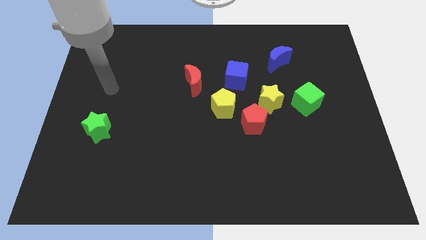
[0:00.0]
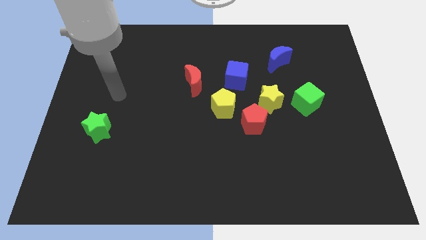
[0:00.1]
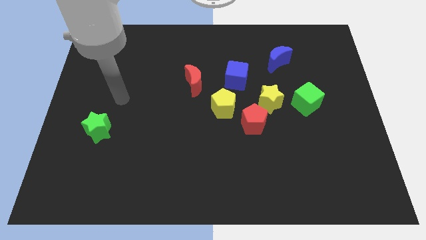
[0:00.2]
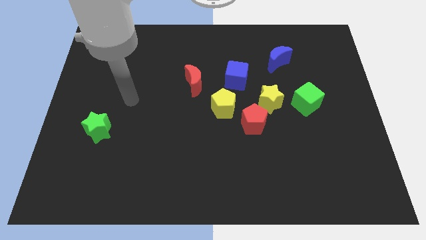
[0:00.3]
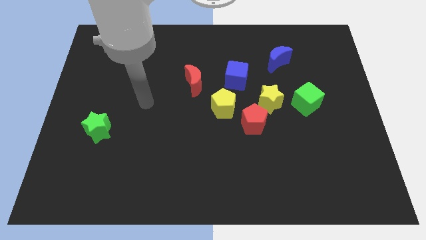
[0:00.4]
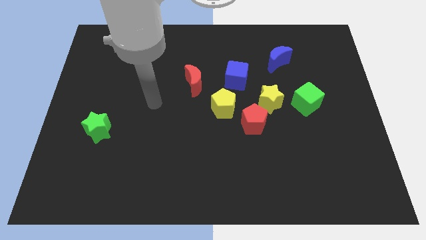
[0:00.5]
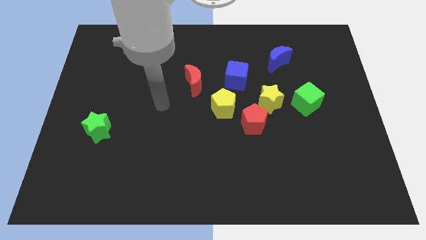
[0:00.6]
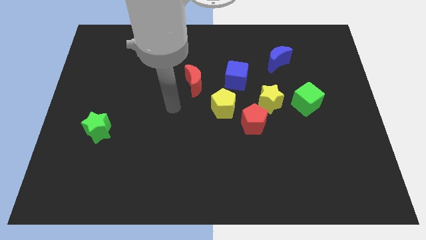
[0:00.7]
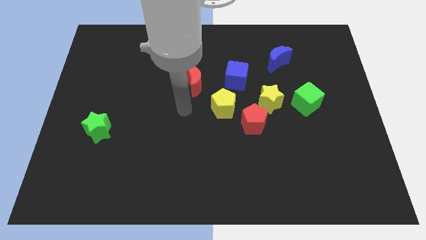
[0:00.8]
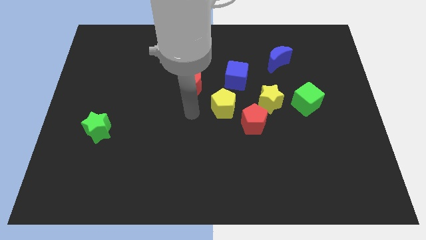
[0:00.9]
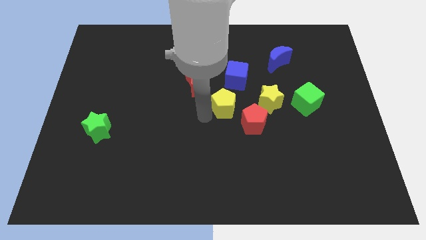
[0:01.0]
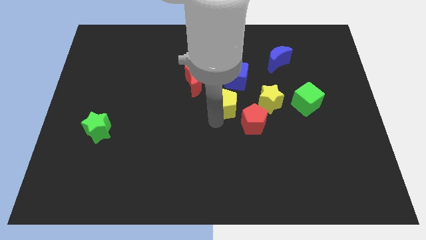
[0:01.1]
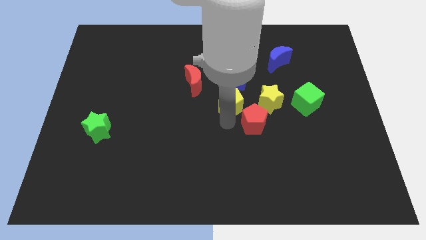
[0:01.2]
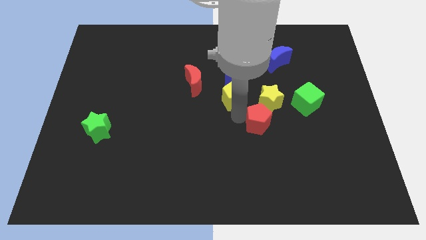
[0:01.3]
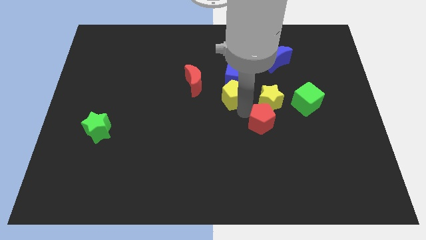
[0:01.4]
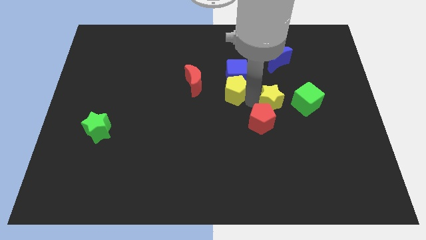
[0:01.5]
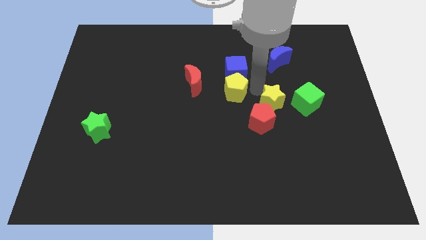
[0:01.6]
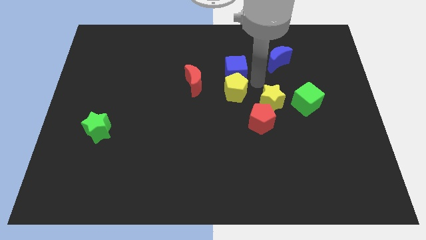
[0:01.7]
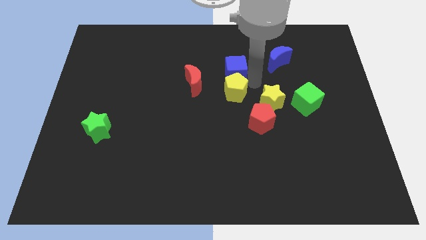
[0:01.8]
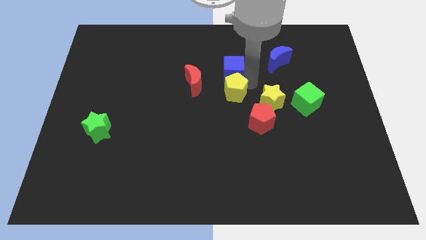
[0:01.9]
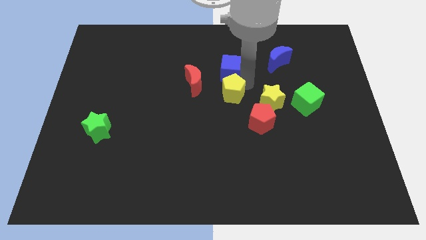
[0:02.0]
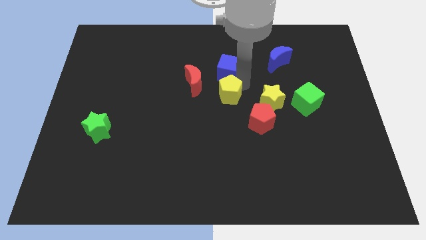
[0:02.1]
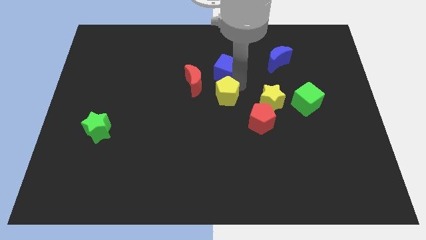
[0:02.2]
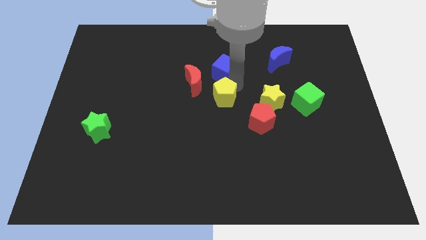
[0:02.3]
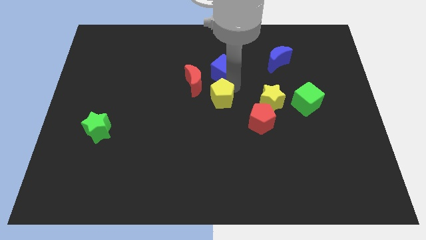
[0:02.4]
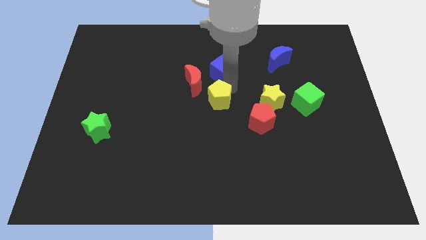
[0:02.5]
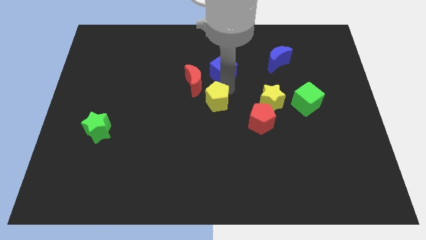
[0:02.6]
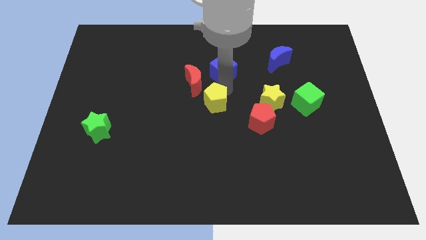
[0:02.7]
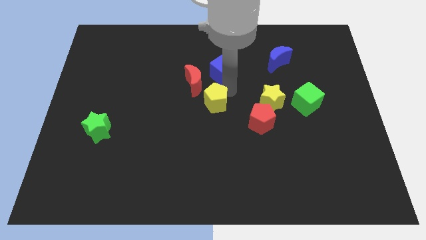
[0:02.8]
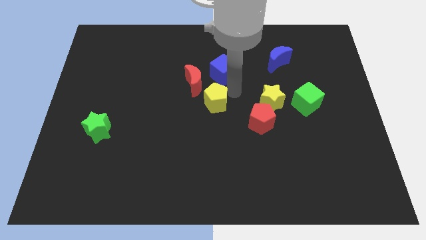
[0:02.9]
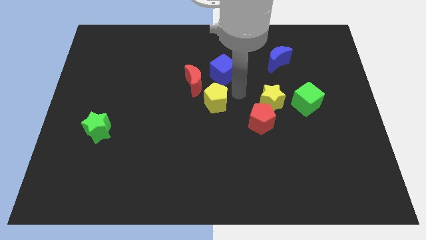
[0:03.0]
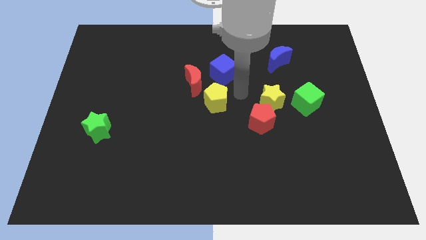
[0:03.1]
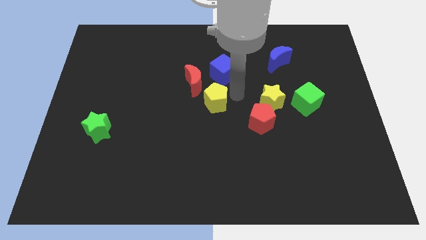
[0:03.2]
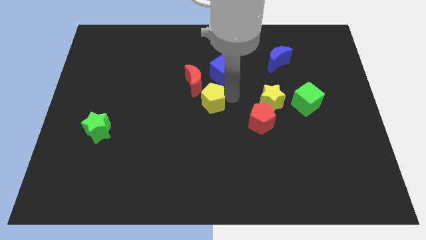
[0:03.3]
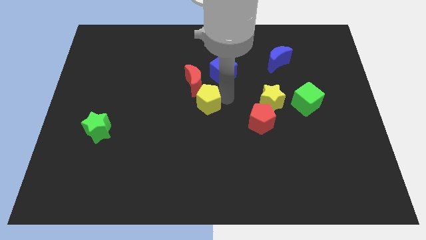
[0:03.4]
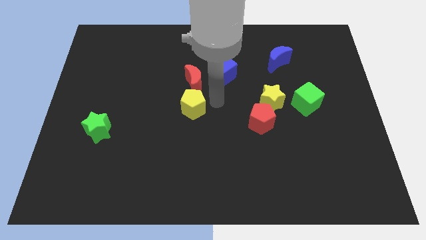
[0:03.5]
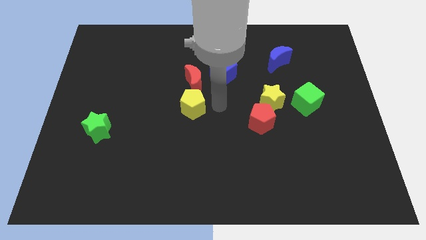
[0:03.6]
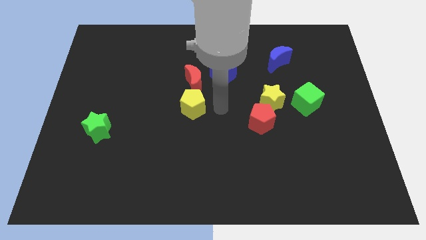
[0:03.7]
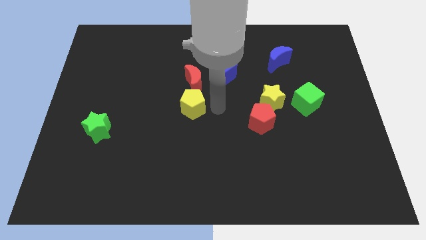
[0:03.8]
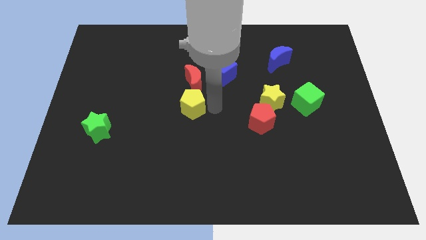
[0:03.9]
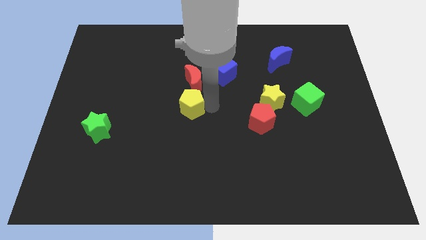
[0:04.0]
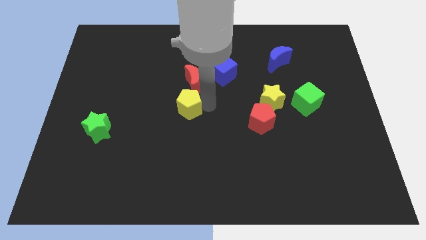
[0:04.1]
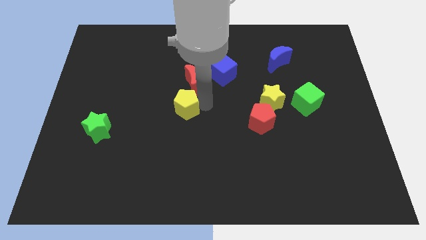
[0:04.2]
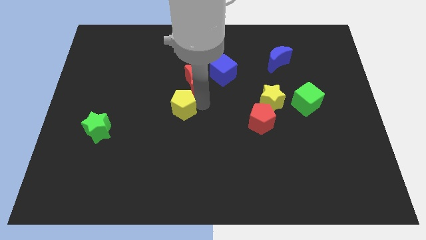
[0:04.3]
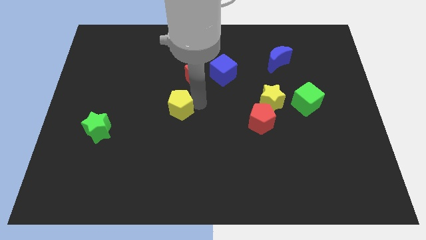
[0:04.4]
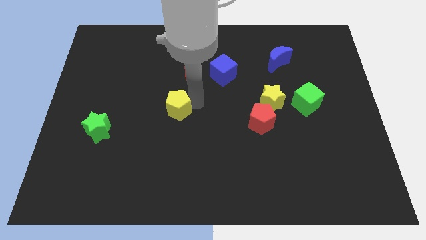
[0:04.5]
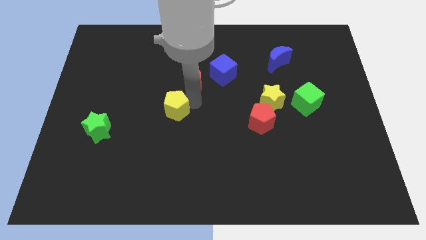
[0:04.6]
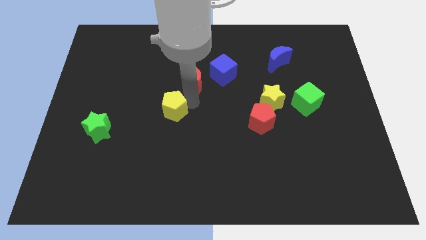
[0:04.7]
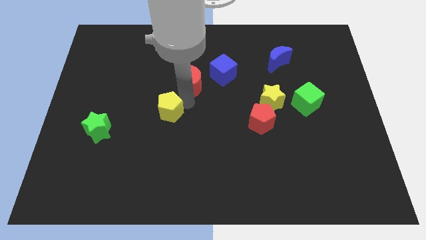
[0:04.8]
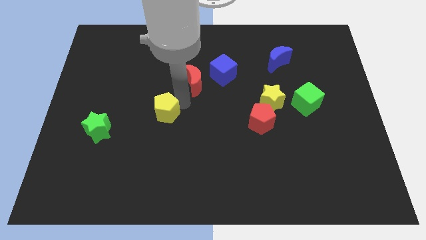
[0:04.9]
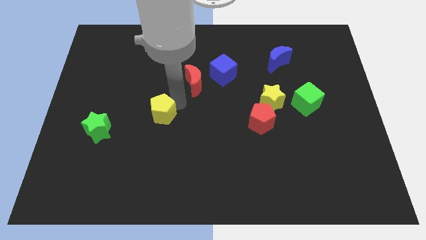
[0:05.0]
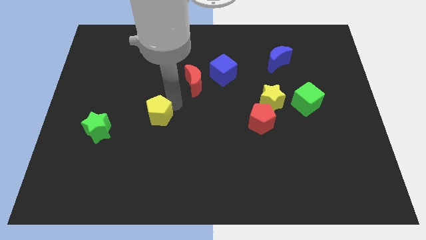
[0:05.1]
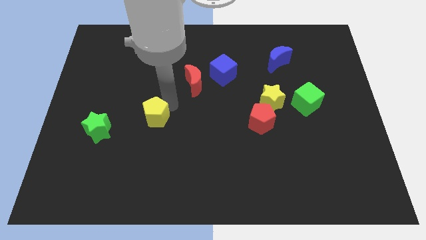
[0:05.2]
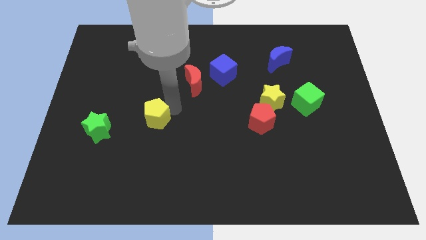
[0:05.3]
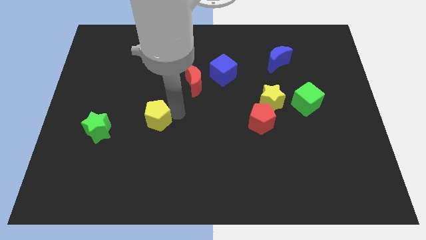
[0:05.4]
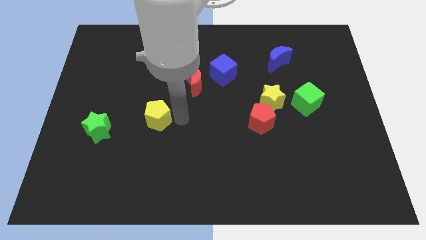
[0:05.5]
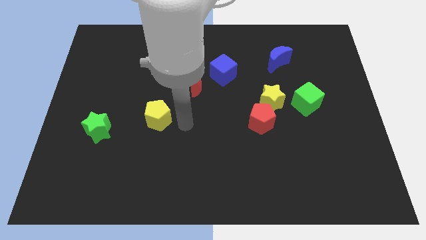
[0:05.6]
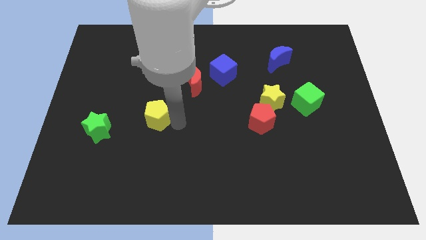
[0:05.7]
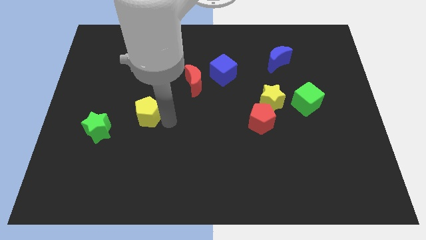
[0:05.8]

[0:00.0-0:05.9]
push the yellow pentagon diagonally up and to the right of the green star

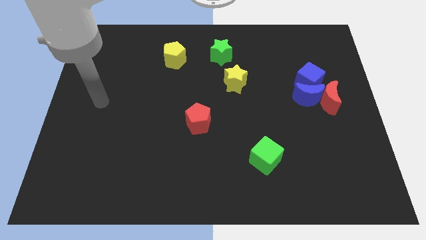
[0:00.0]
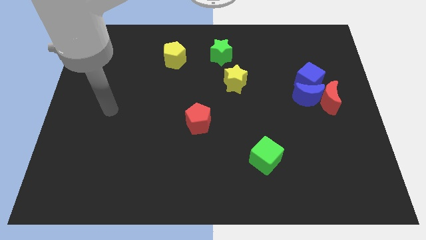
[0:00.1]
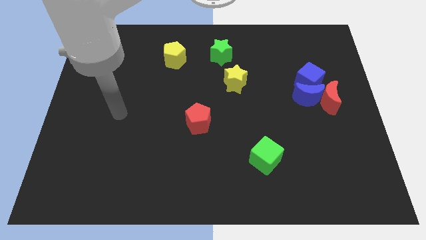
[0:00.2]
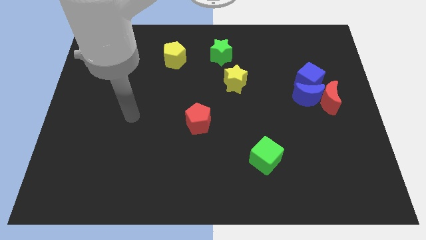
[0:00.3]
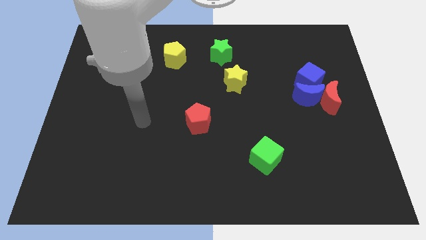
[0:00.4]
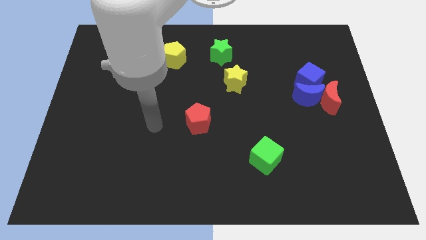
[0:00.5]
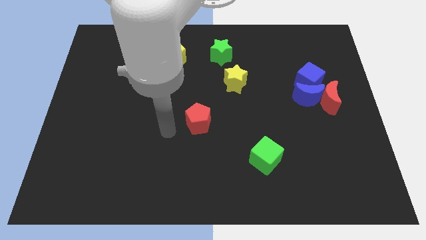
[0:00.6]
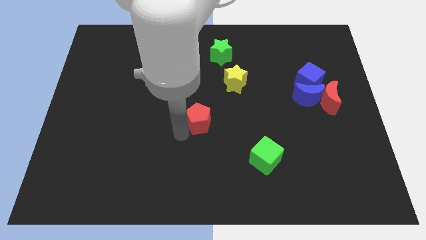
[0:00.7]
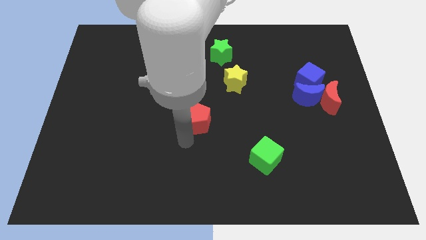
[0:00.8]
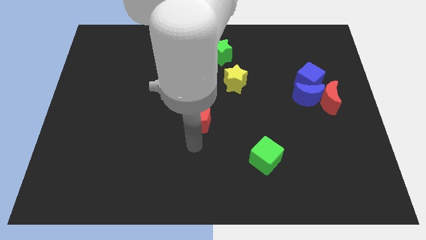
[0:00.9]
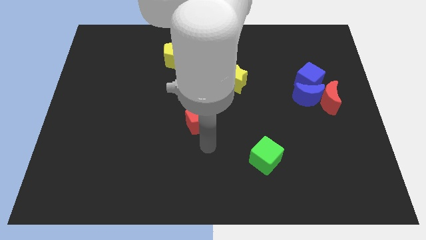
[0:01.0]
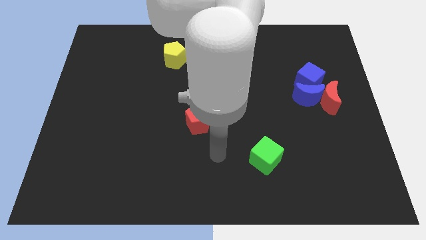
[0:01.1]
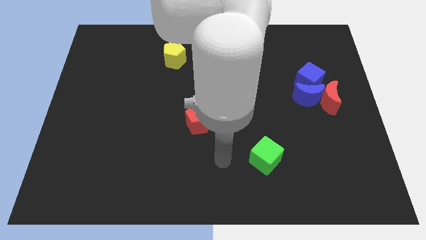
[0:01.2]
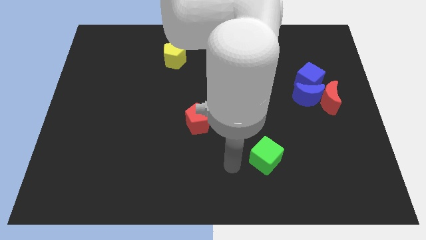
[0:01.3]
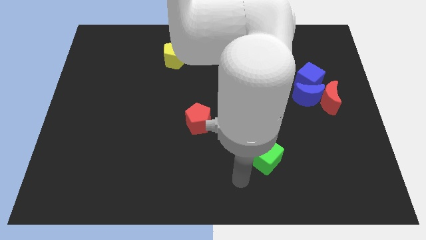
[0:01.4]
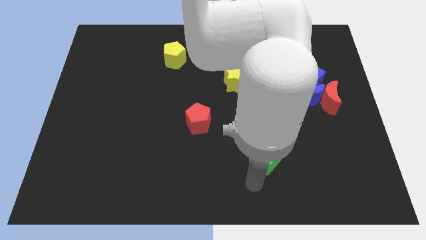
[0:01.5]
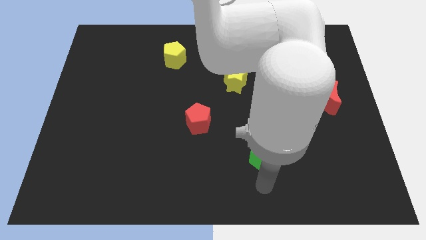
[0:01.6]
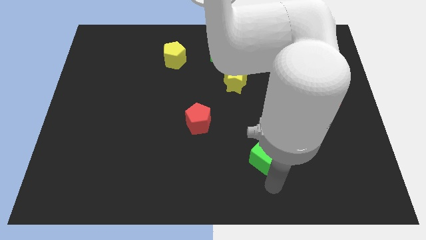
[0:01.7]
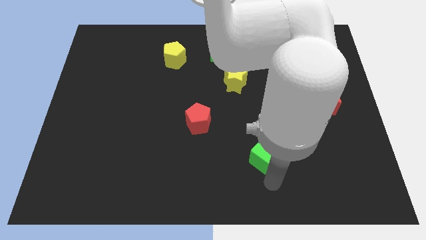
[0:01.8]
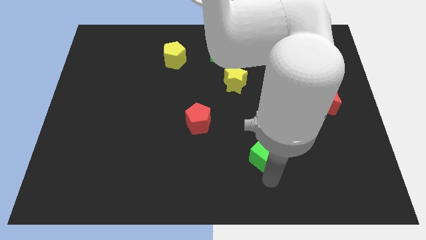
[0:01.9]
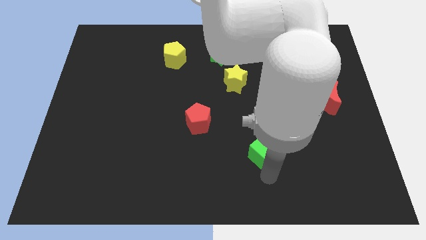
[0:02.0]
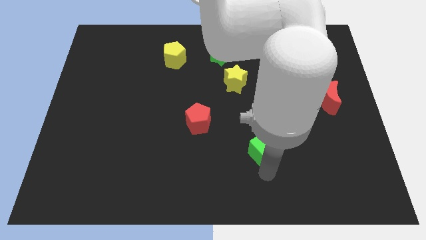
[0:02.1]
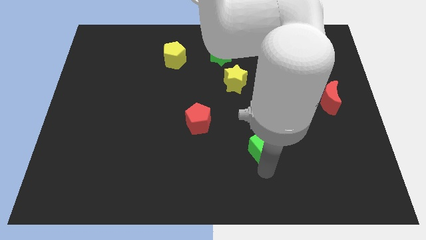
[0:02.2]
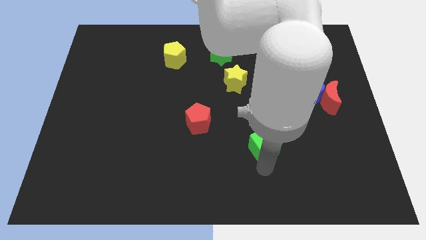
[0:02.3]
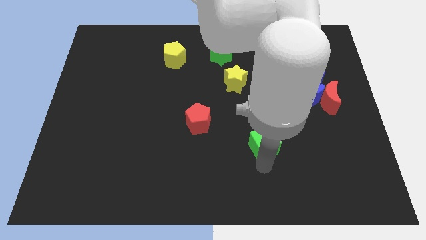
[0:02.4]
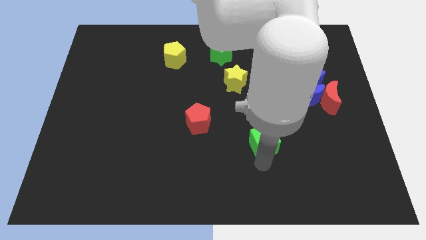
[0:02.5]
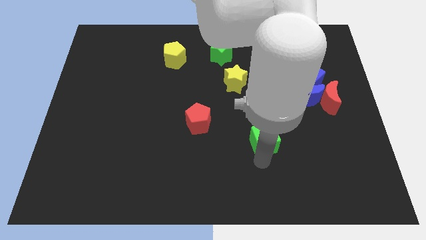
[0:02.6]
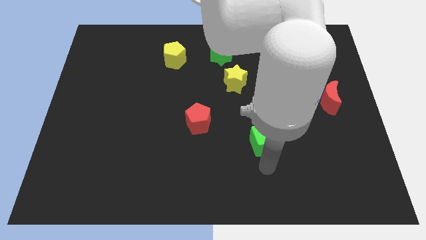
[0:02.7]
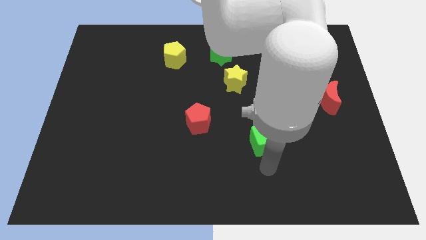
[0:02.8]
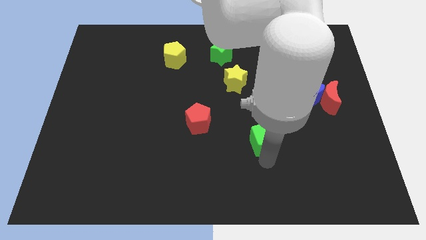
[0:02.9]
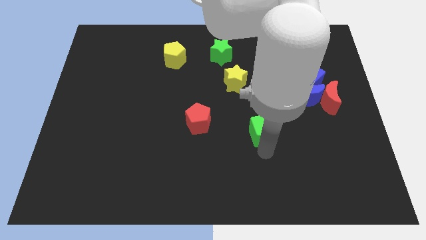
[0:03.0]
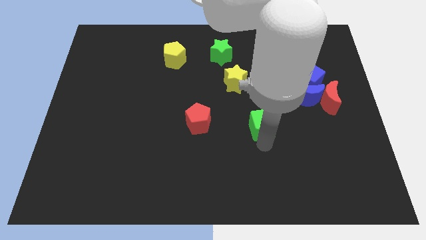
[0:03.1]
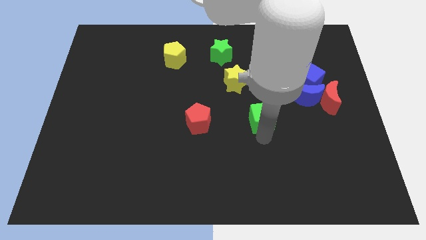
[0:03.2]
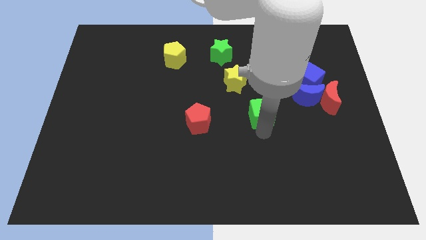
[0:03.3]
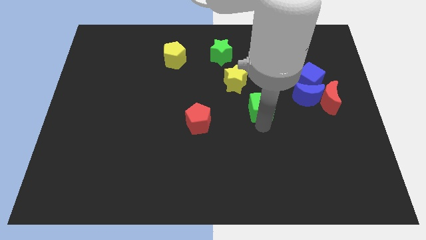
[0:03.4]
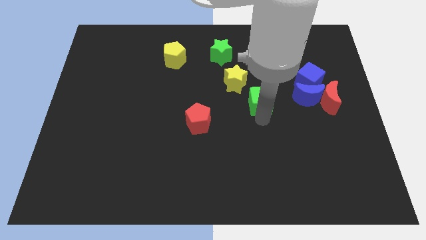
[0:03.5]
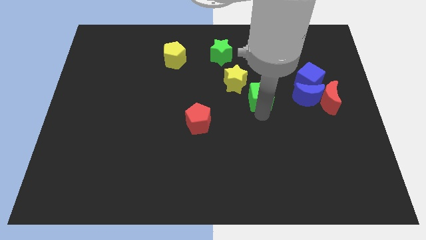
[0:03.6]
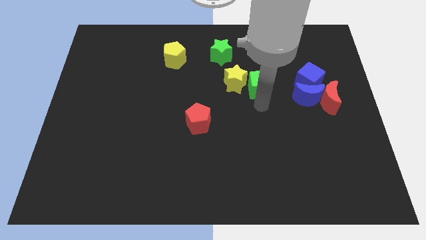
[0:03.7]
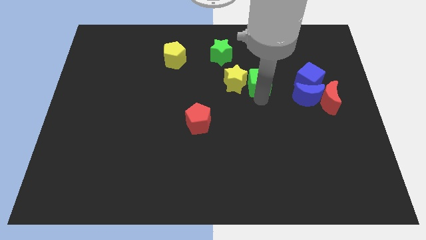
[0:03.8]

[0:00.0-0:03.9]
slide the green cube to the top right side of the yellow star
